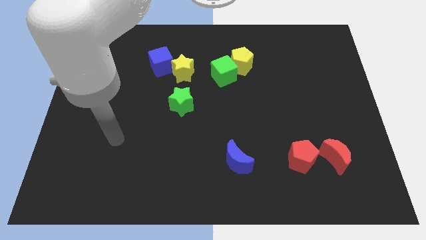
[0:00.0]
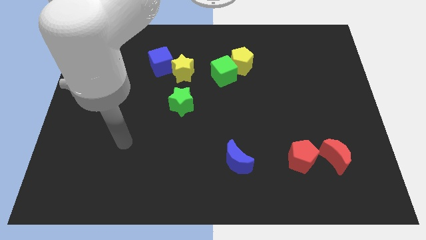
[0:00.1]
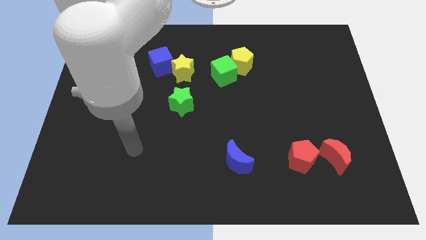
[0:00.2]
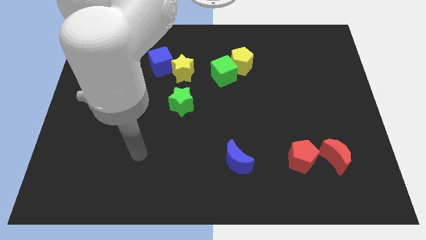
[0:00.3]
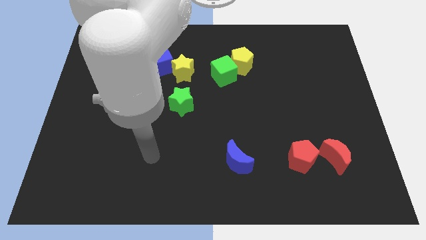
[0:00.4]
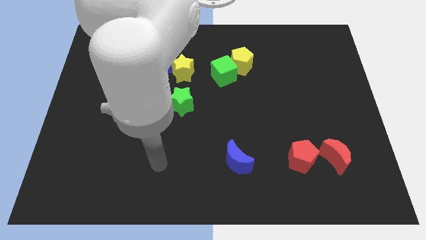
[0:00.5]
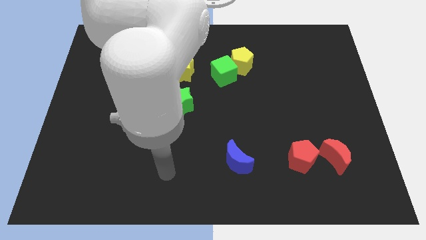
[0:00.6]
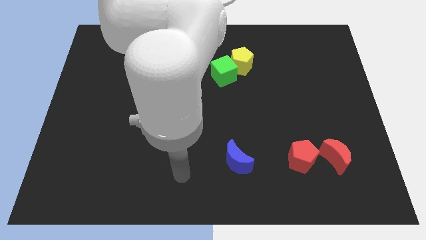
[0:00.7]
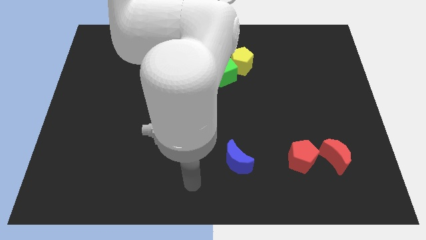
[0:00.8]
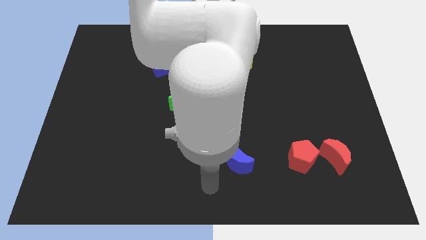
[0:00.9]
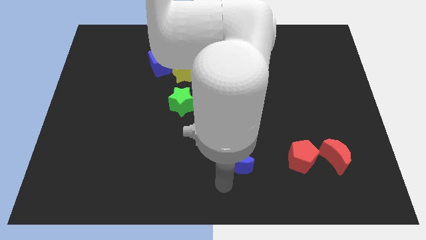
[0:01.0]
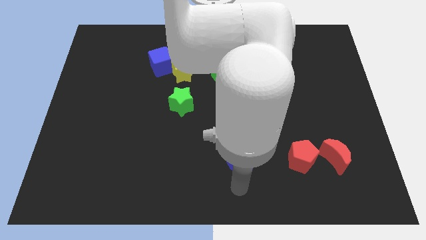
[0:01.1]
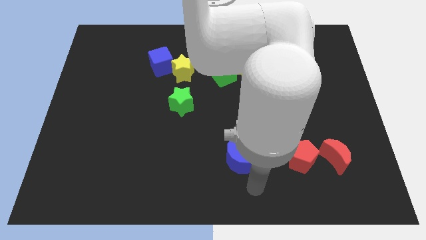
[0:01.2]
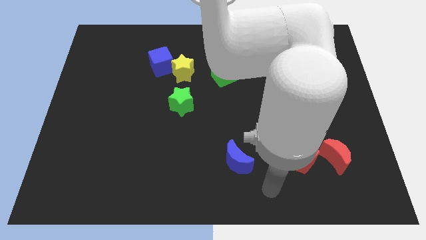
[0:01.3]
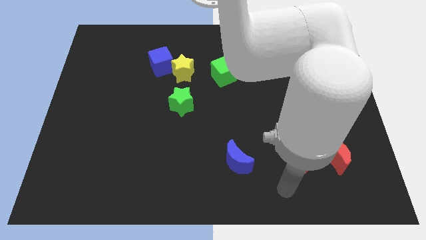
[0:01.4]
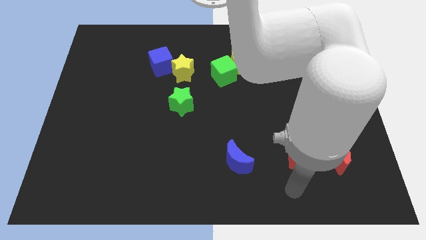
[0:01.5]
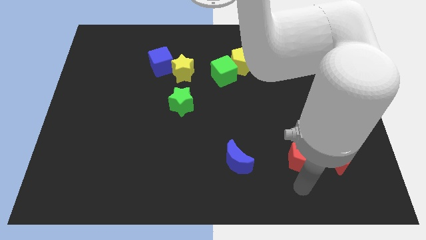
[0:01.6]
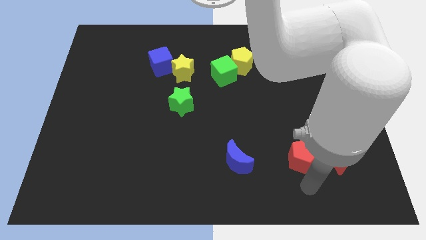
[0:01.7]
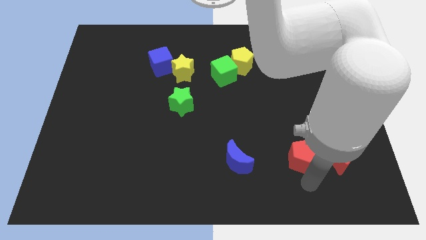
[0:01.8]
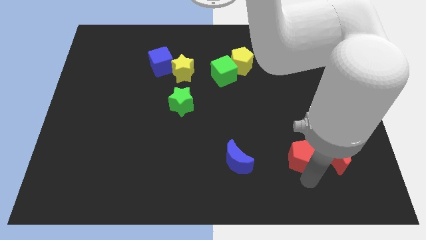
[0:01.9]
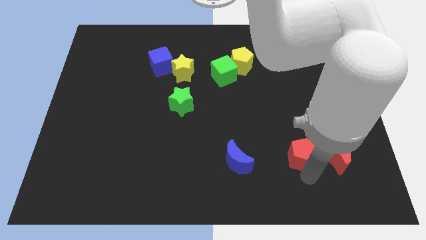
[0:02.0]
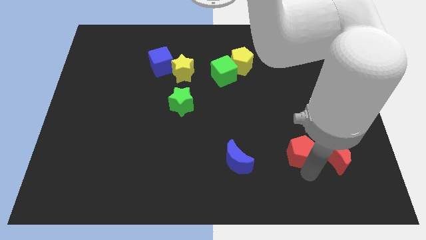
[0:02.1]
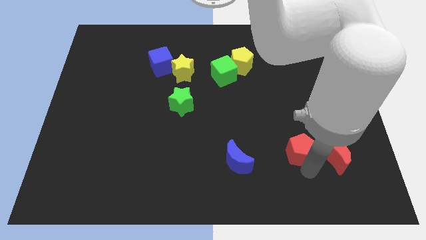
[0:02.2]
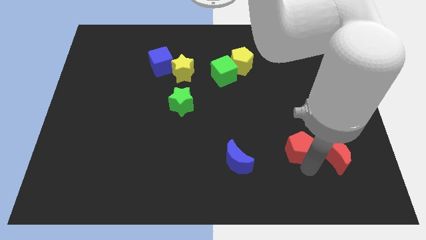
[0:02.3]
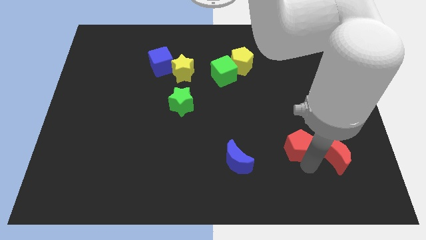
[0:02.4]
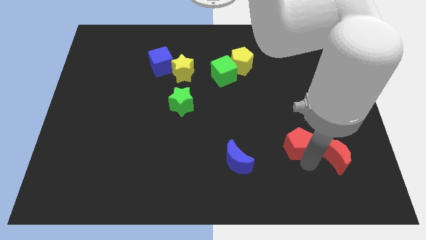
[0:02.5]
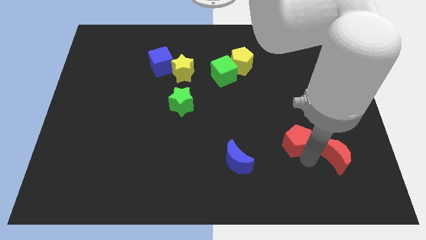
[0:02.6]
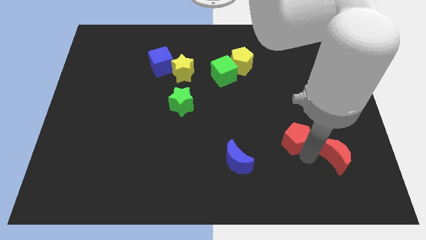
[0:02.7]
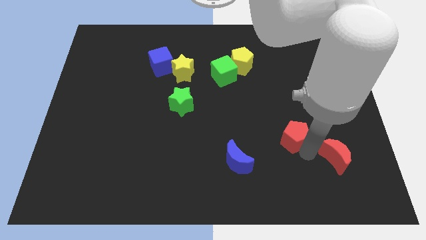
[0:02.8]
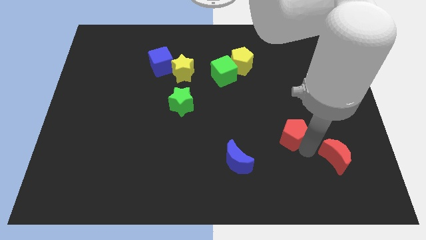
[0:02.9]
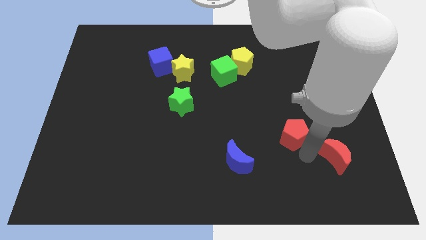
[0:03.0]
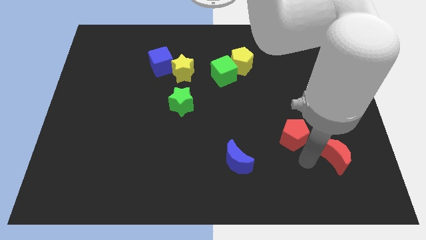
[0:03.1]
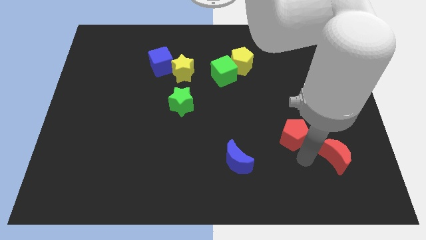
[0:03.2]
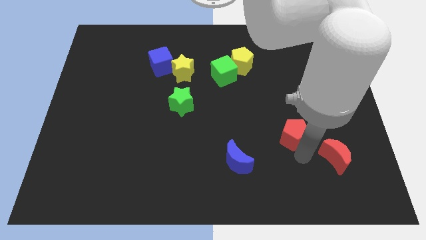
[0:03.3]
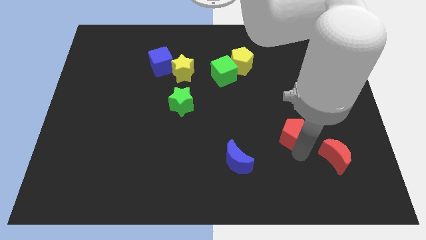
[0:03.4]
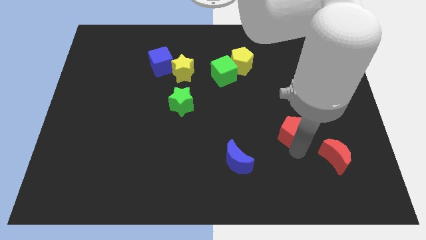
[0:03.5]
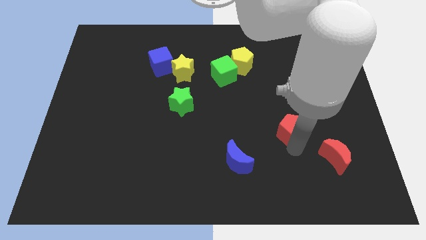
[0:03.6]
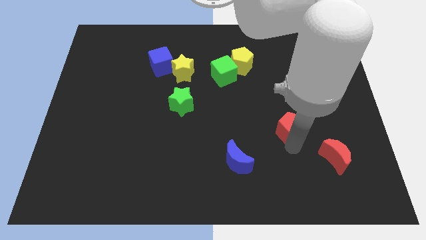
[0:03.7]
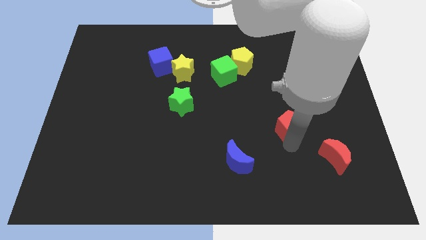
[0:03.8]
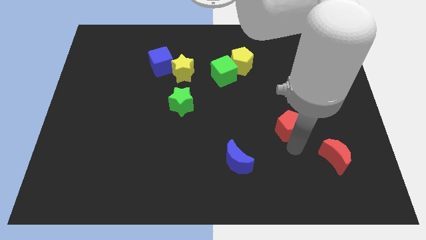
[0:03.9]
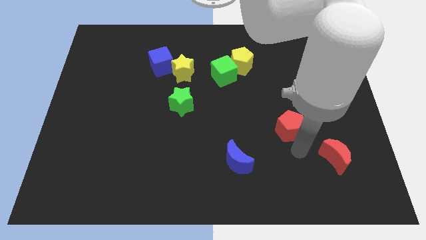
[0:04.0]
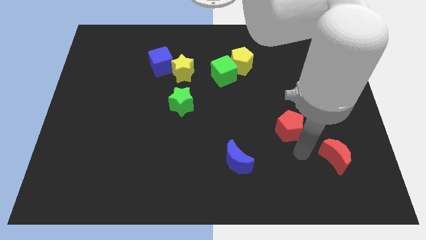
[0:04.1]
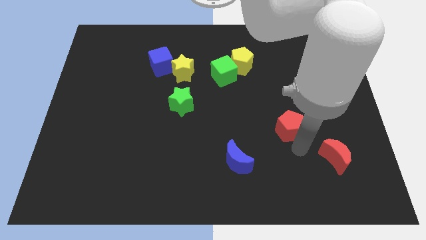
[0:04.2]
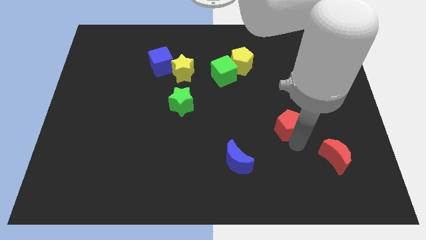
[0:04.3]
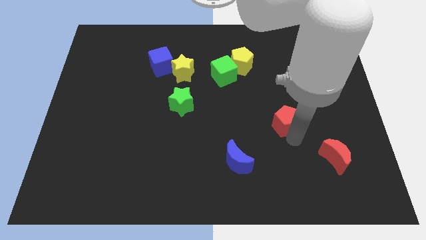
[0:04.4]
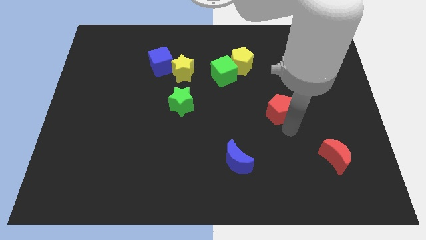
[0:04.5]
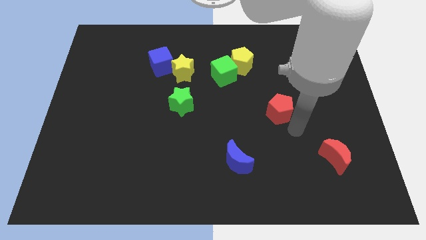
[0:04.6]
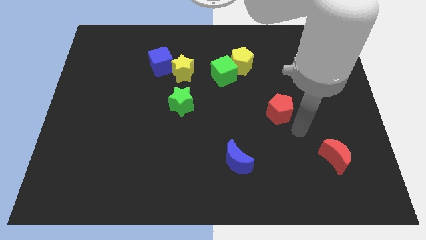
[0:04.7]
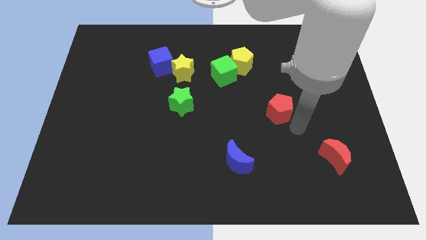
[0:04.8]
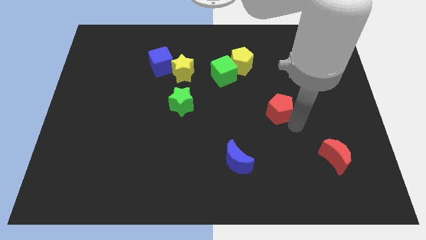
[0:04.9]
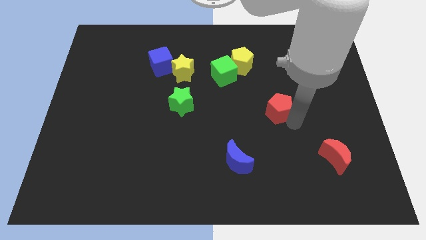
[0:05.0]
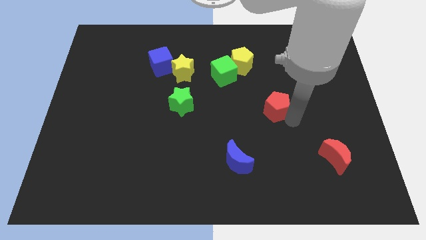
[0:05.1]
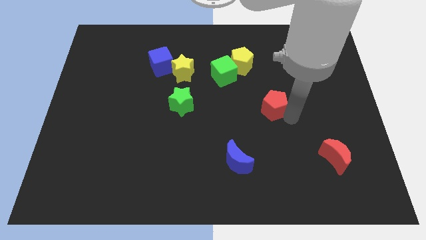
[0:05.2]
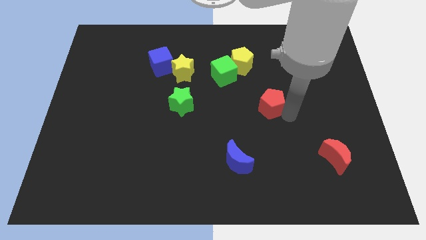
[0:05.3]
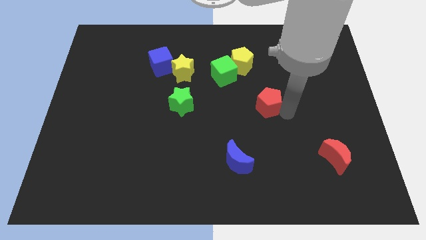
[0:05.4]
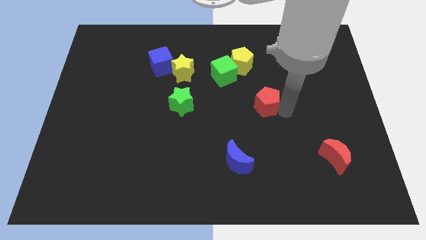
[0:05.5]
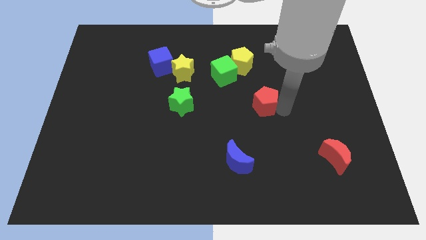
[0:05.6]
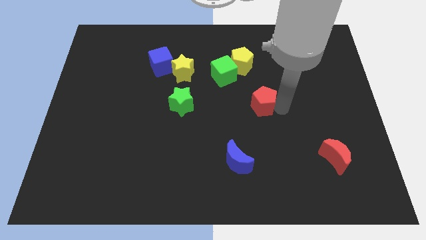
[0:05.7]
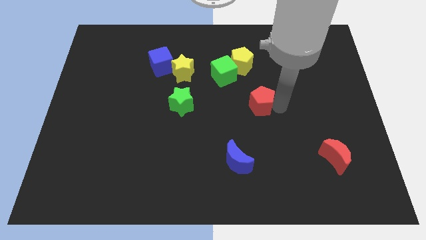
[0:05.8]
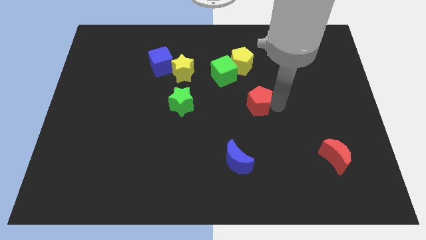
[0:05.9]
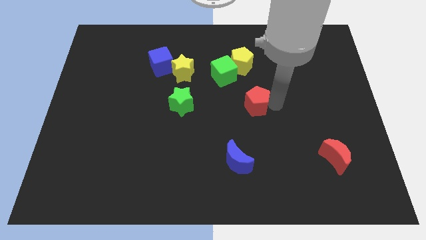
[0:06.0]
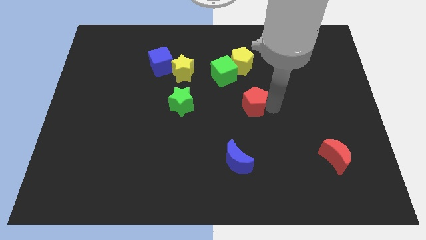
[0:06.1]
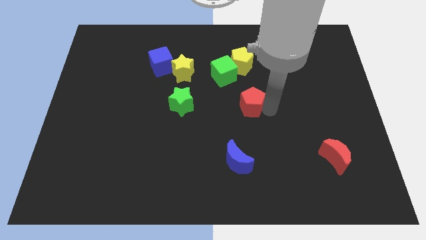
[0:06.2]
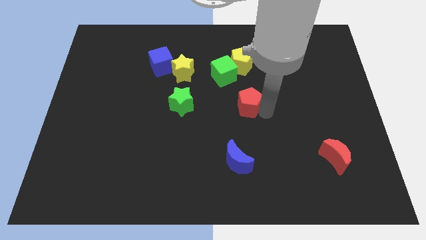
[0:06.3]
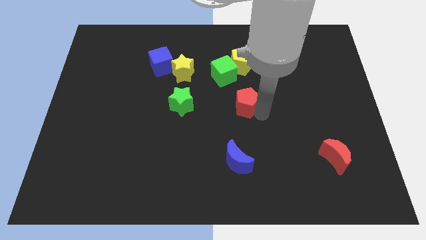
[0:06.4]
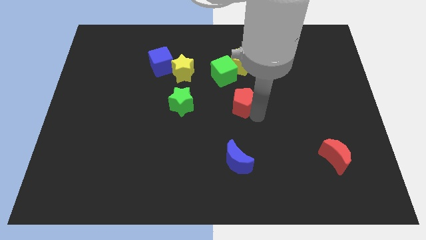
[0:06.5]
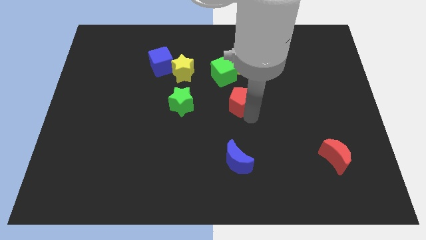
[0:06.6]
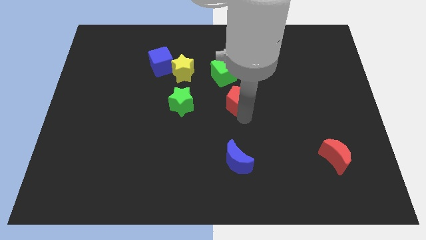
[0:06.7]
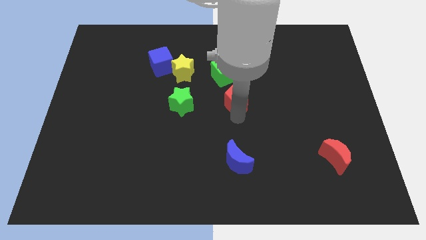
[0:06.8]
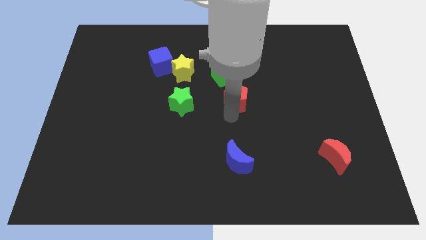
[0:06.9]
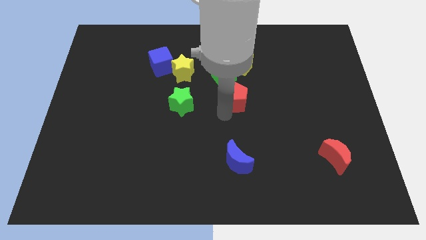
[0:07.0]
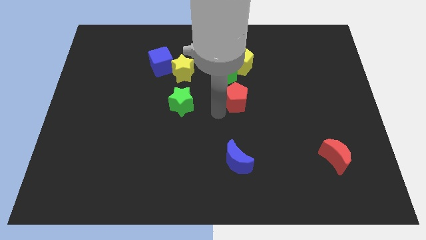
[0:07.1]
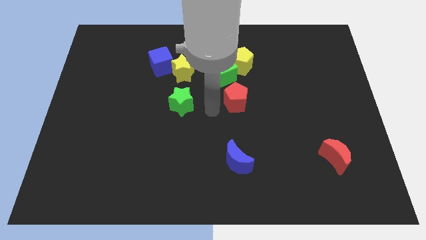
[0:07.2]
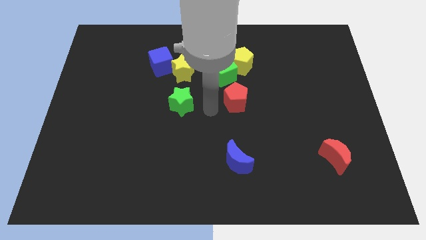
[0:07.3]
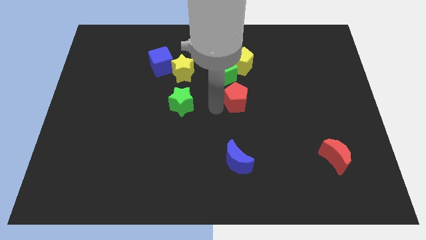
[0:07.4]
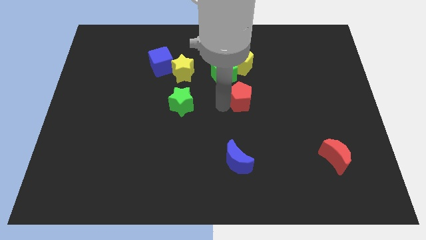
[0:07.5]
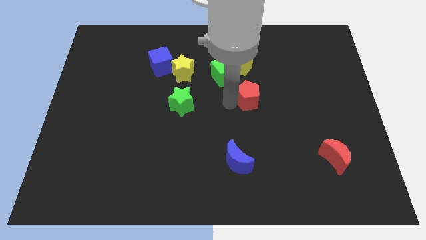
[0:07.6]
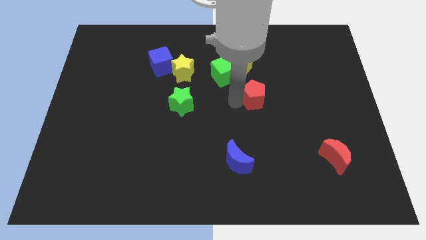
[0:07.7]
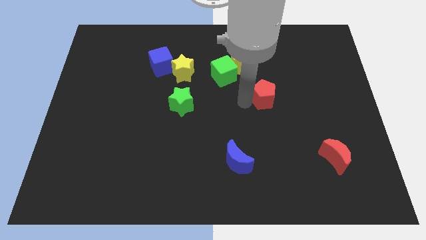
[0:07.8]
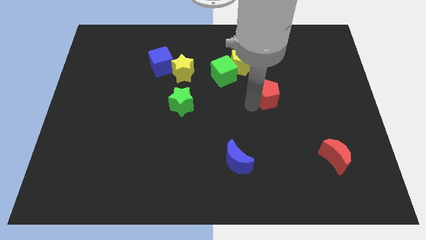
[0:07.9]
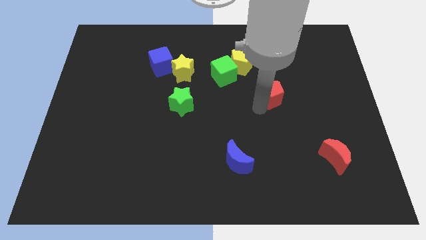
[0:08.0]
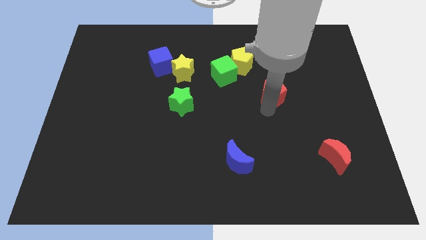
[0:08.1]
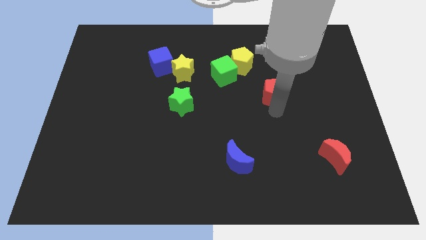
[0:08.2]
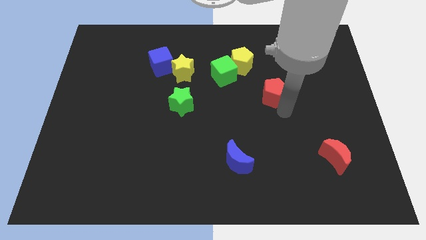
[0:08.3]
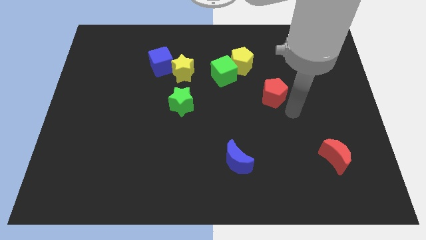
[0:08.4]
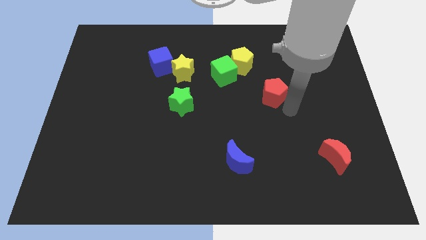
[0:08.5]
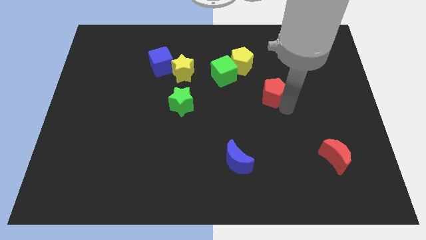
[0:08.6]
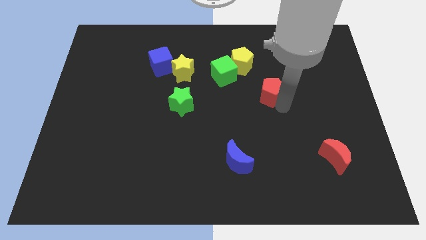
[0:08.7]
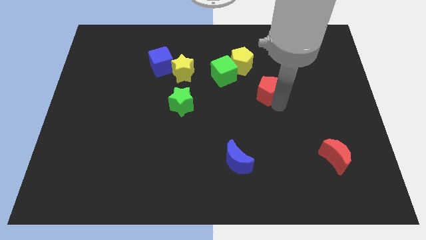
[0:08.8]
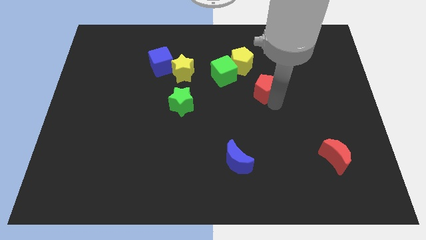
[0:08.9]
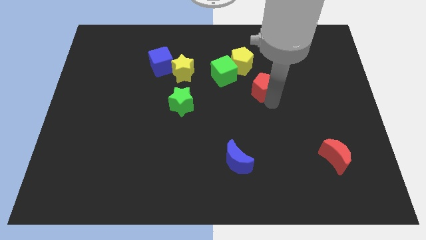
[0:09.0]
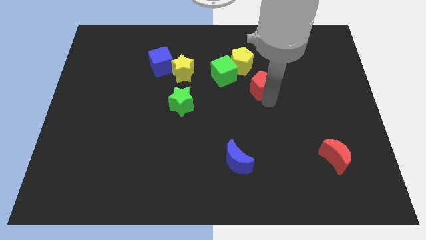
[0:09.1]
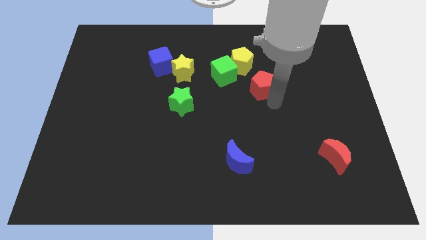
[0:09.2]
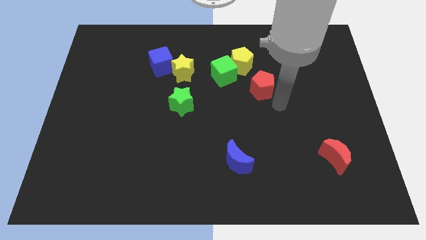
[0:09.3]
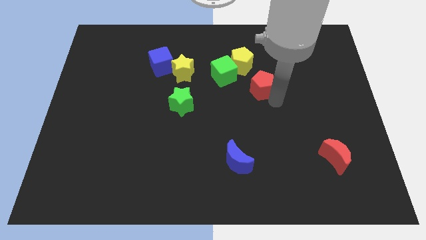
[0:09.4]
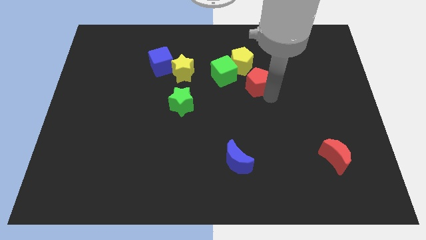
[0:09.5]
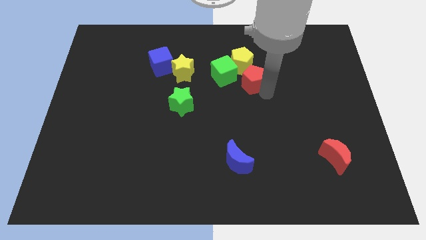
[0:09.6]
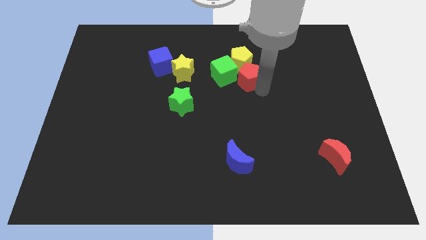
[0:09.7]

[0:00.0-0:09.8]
slide the red pentagon next to the yellow pentagon
